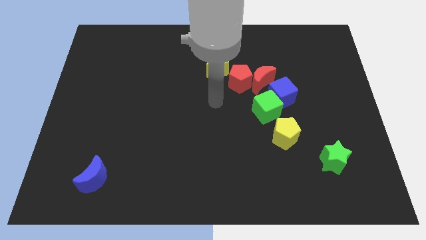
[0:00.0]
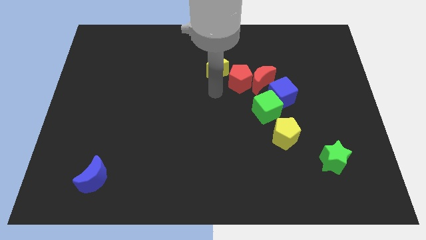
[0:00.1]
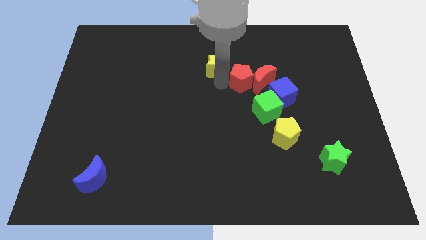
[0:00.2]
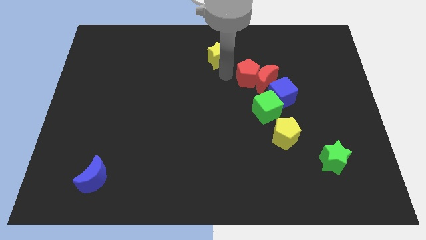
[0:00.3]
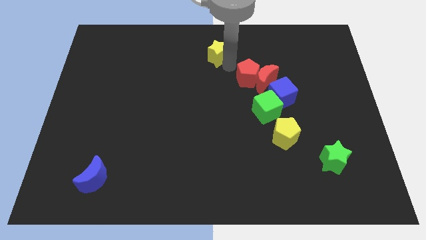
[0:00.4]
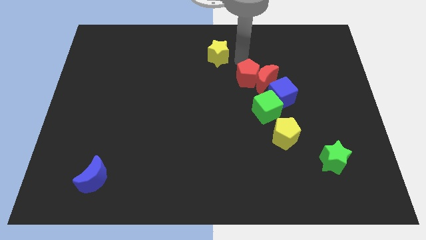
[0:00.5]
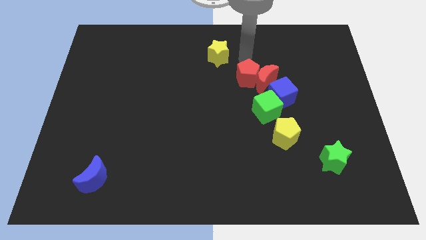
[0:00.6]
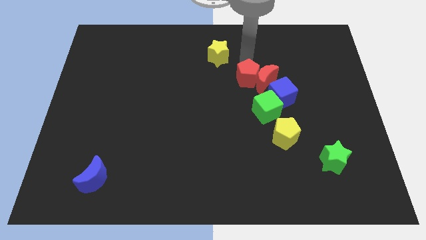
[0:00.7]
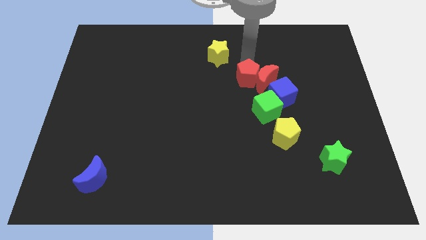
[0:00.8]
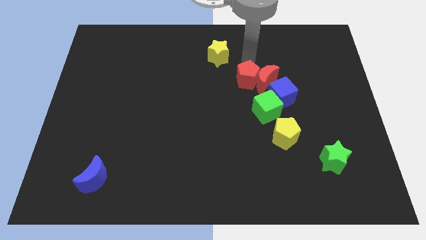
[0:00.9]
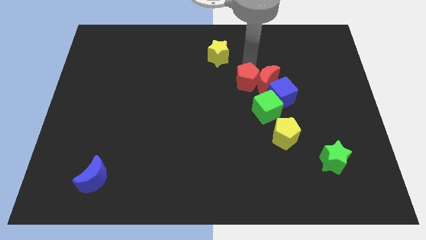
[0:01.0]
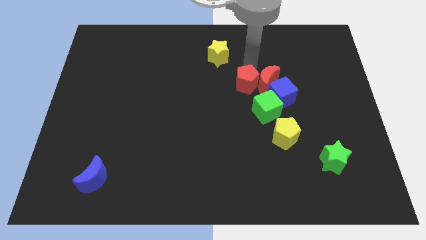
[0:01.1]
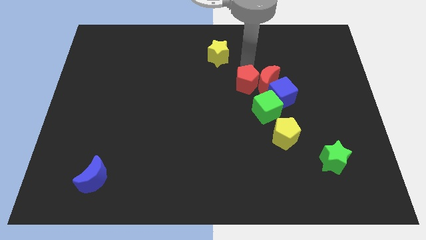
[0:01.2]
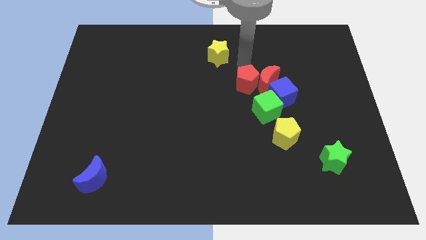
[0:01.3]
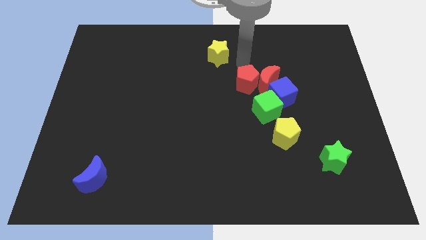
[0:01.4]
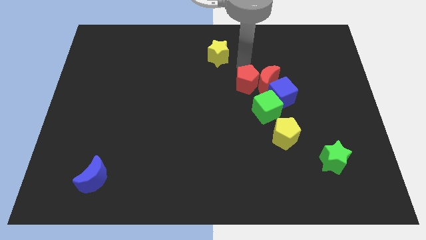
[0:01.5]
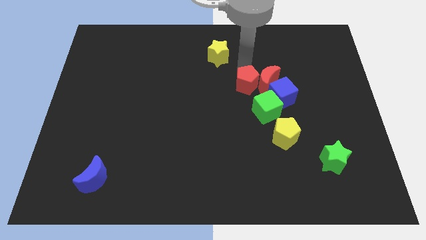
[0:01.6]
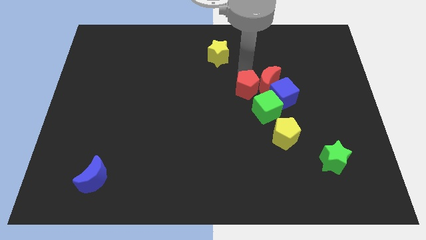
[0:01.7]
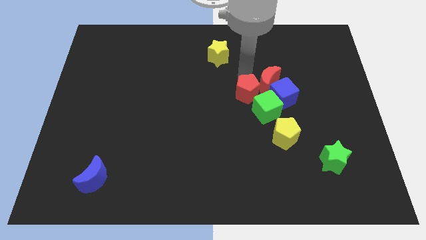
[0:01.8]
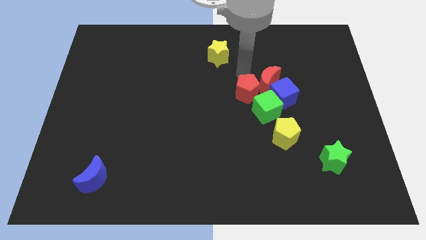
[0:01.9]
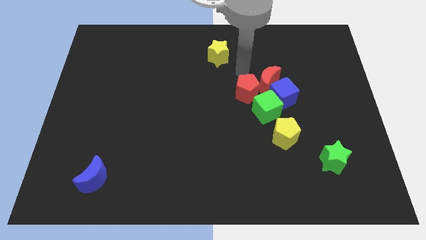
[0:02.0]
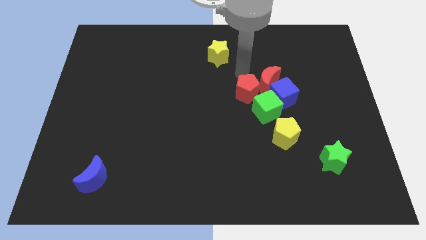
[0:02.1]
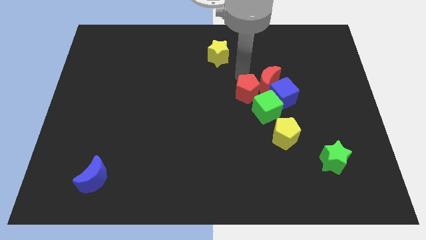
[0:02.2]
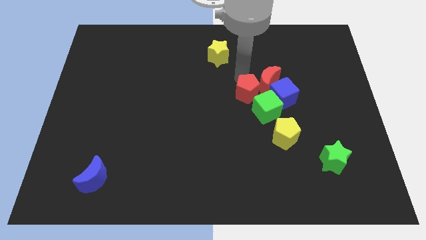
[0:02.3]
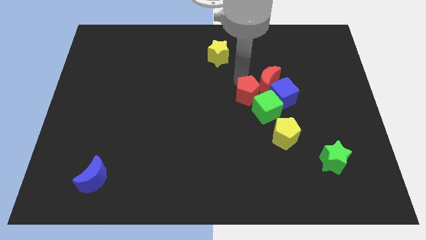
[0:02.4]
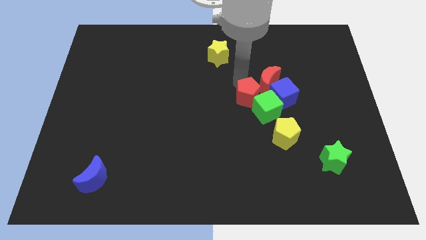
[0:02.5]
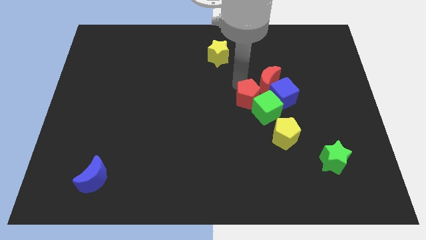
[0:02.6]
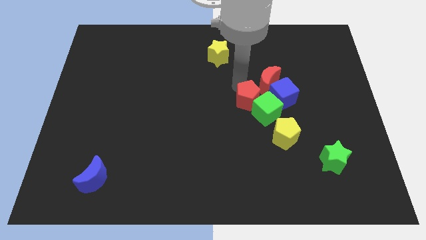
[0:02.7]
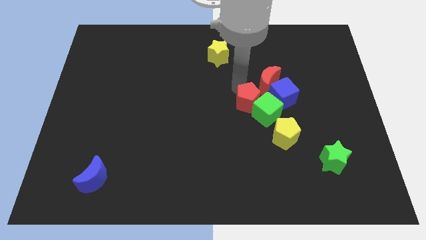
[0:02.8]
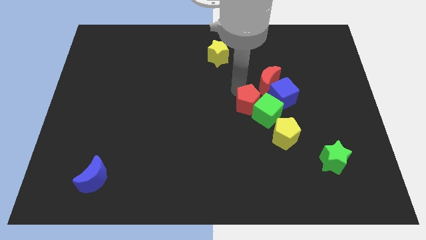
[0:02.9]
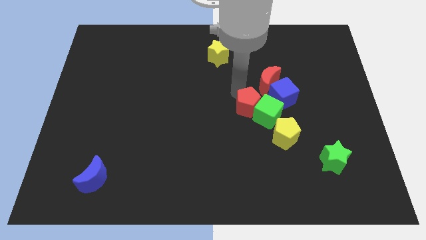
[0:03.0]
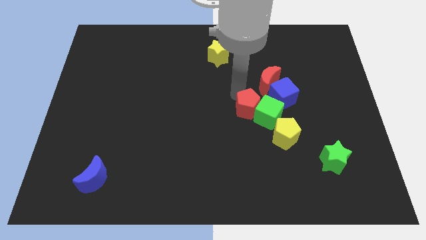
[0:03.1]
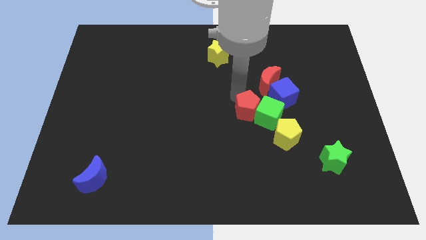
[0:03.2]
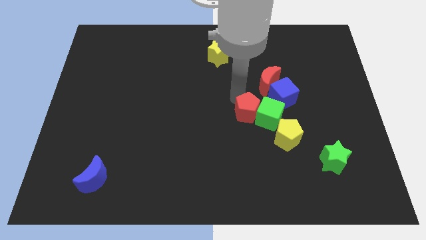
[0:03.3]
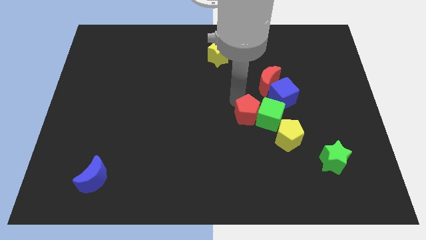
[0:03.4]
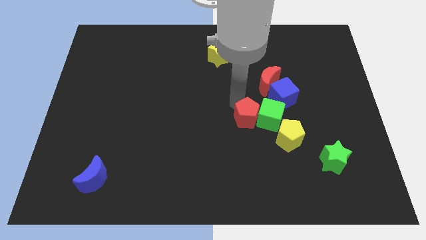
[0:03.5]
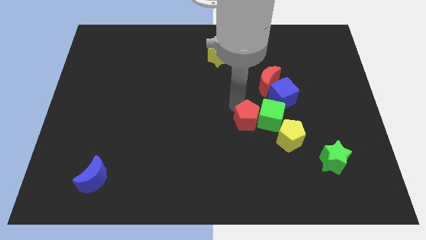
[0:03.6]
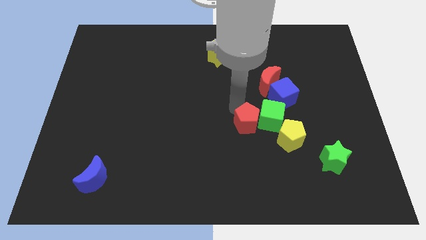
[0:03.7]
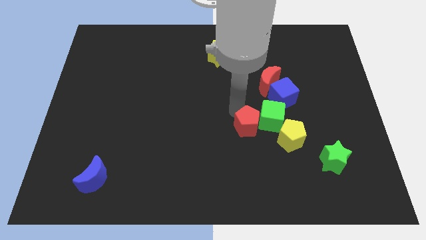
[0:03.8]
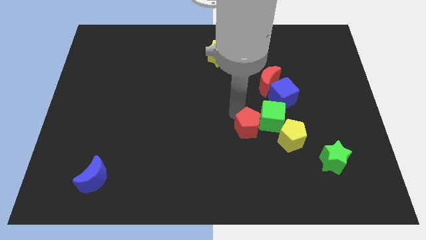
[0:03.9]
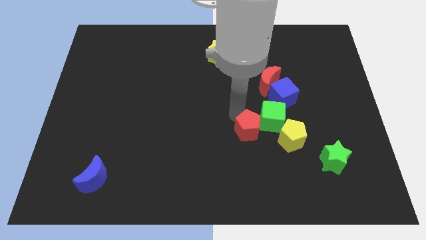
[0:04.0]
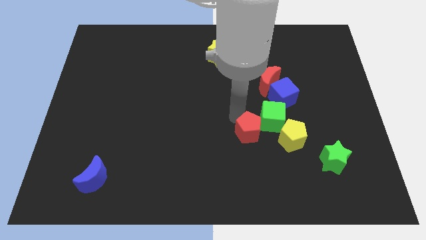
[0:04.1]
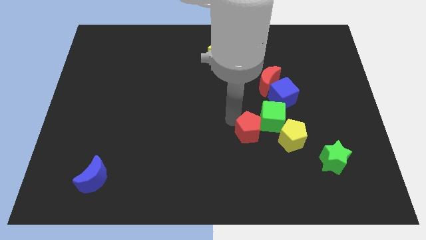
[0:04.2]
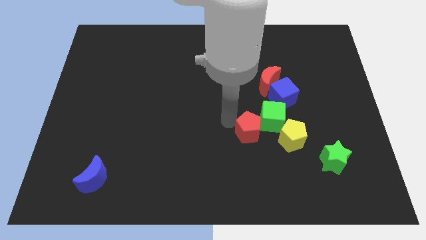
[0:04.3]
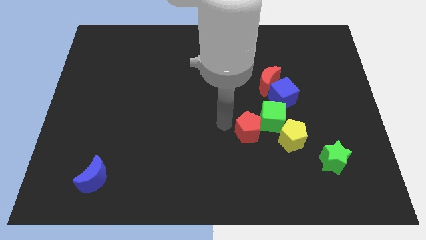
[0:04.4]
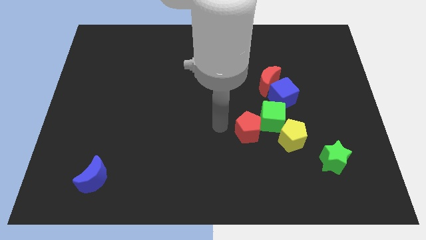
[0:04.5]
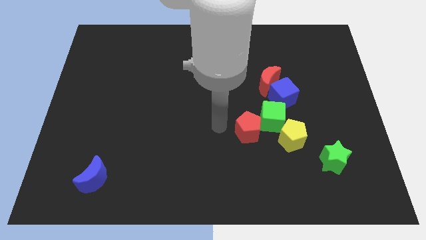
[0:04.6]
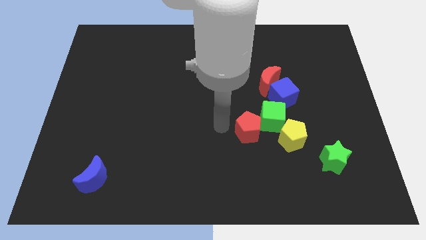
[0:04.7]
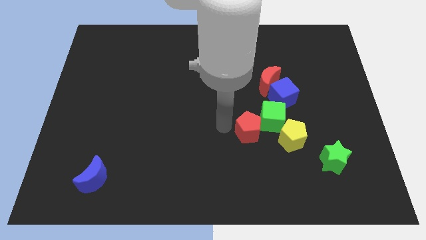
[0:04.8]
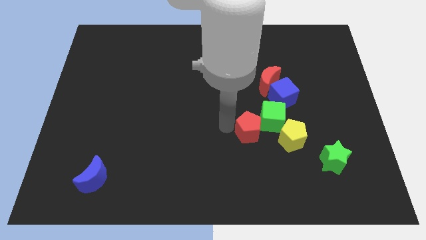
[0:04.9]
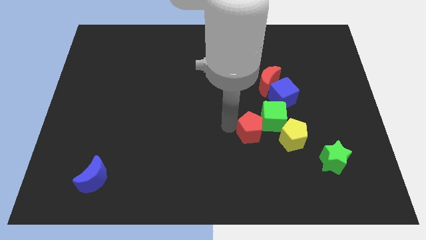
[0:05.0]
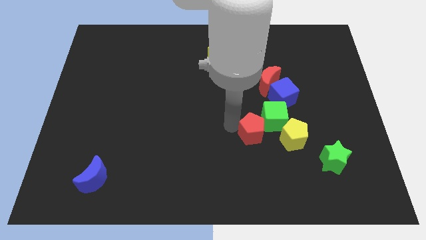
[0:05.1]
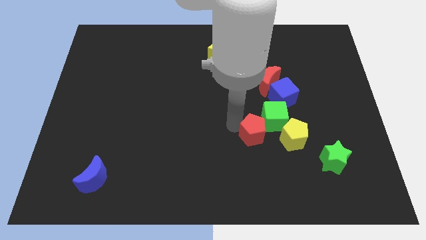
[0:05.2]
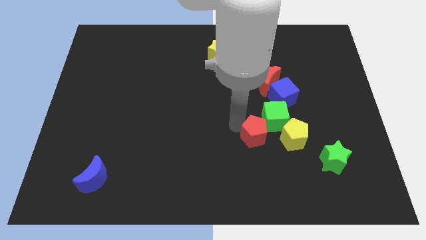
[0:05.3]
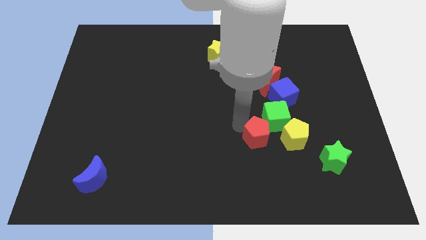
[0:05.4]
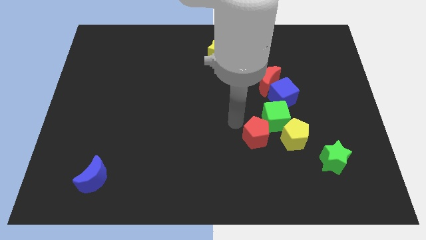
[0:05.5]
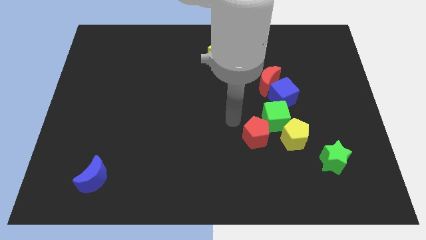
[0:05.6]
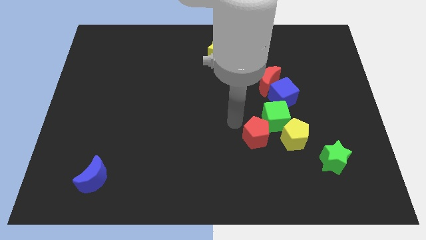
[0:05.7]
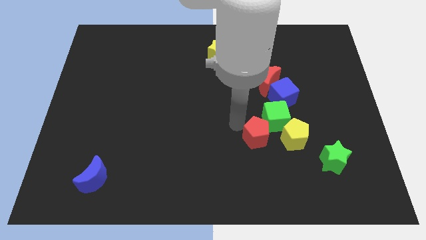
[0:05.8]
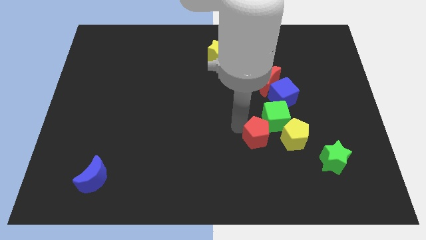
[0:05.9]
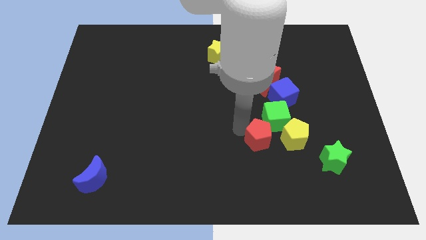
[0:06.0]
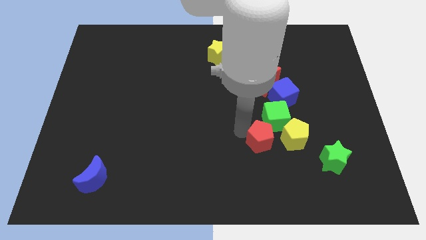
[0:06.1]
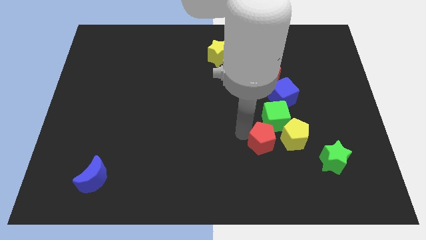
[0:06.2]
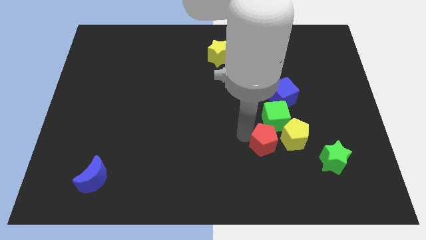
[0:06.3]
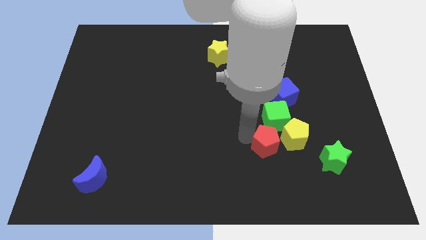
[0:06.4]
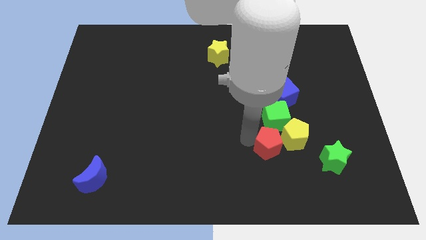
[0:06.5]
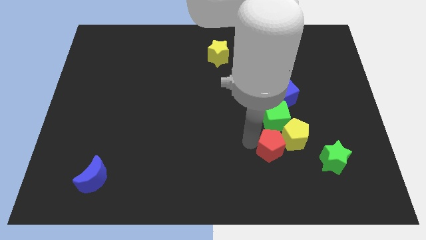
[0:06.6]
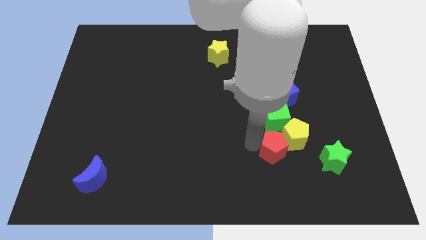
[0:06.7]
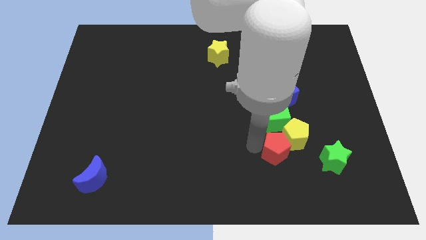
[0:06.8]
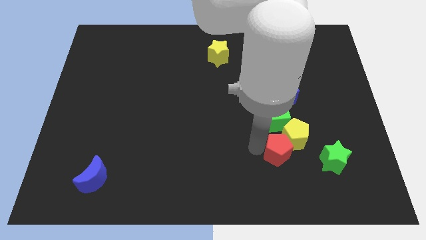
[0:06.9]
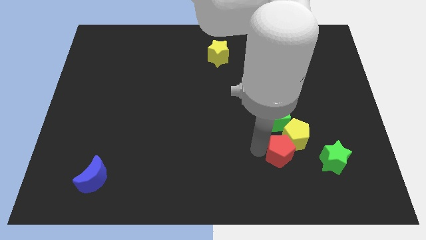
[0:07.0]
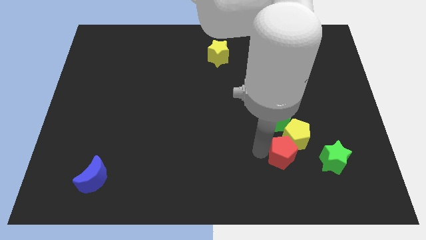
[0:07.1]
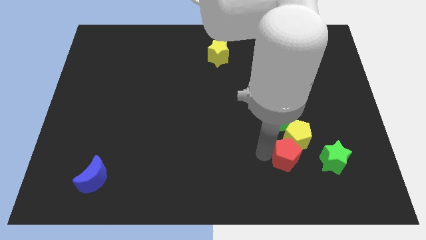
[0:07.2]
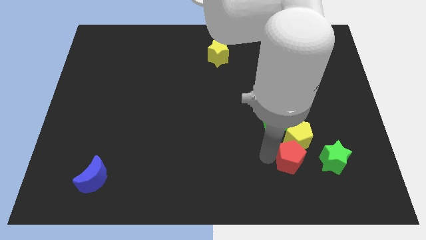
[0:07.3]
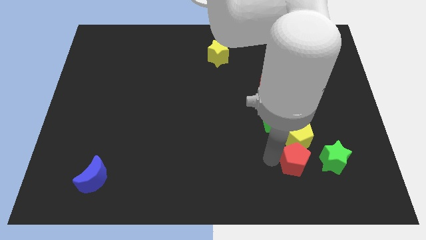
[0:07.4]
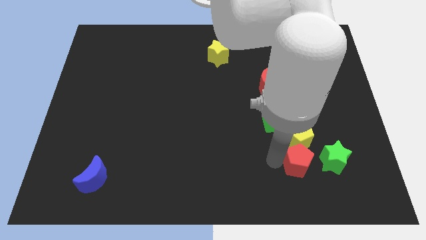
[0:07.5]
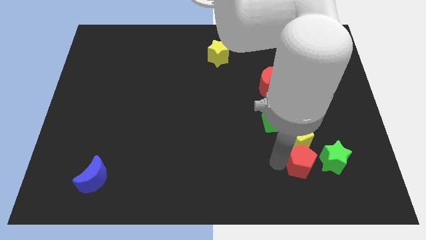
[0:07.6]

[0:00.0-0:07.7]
slide the red pentagon to the bottom right of the yellow pentagon
